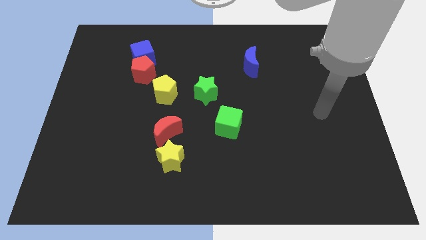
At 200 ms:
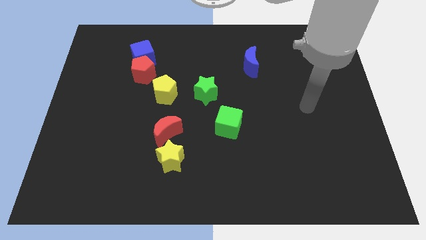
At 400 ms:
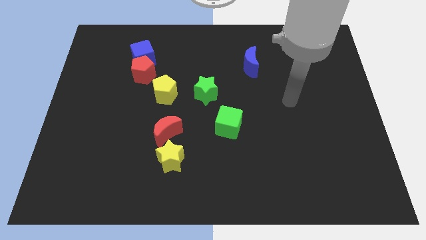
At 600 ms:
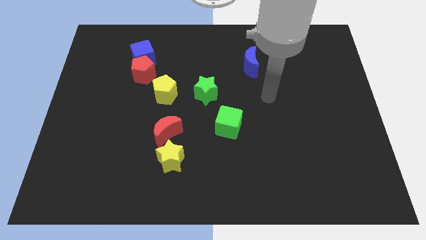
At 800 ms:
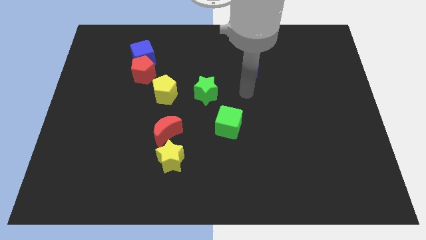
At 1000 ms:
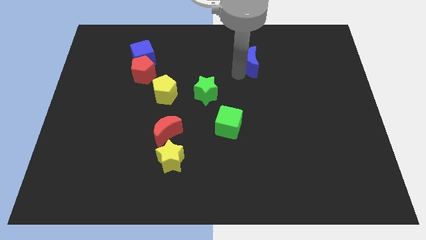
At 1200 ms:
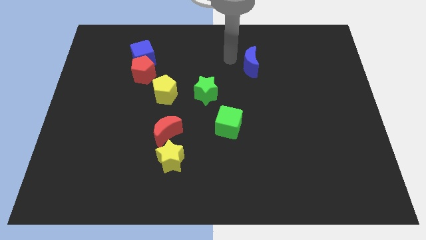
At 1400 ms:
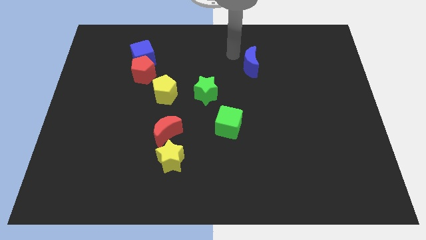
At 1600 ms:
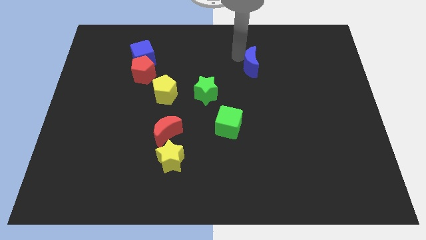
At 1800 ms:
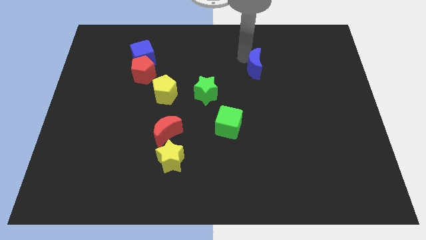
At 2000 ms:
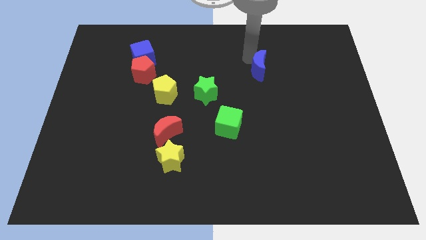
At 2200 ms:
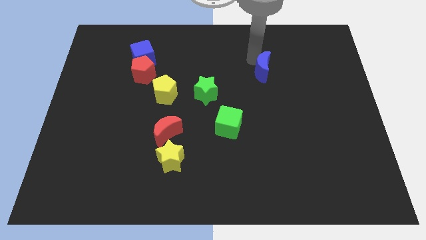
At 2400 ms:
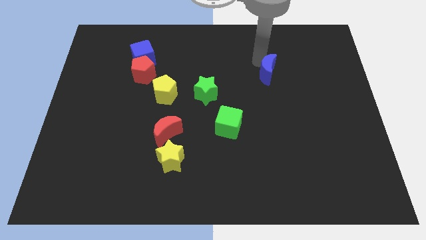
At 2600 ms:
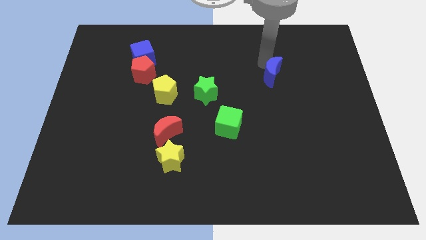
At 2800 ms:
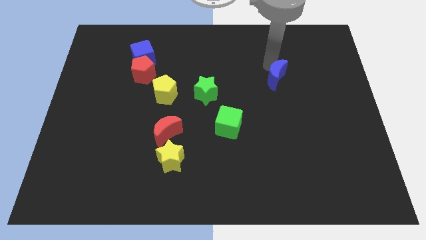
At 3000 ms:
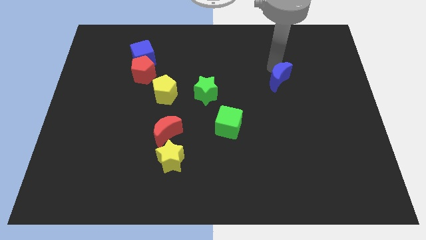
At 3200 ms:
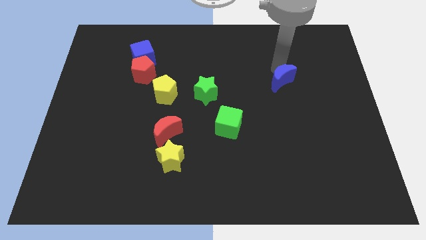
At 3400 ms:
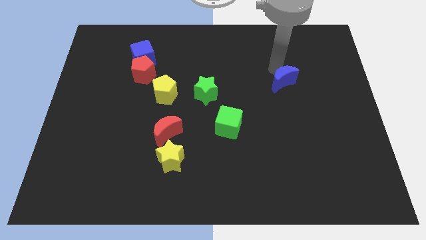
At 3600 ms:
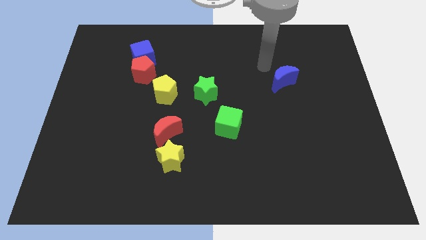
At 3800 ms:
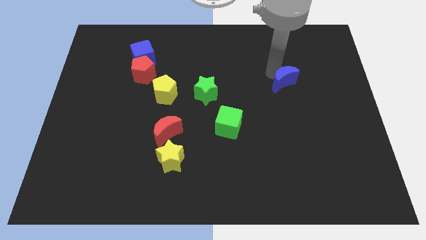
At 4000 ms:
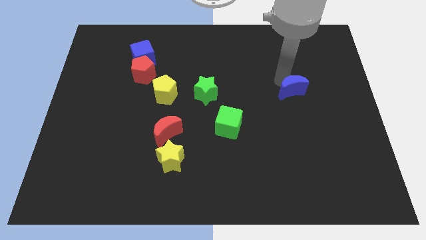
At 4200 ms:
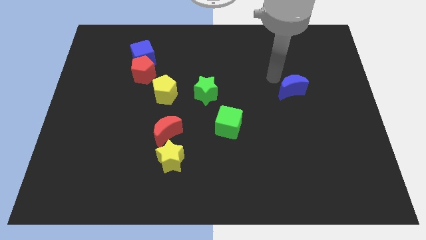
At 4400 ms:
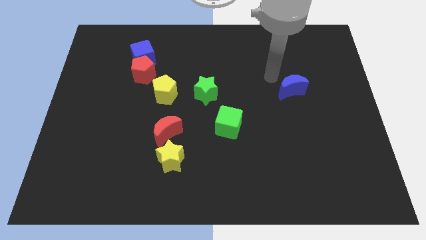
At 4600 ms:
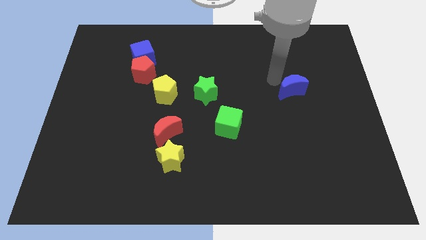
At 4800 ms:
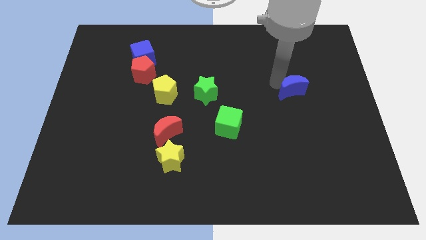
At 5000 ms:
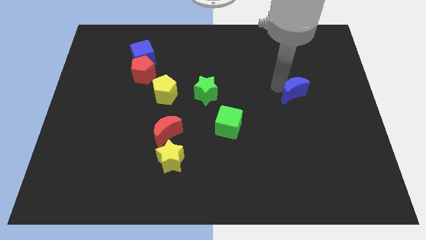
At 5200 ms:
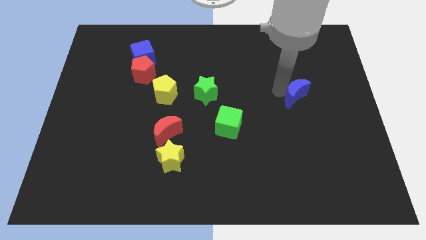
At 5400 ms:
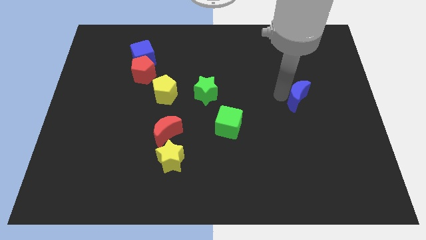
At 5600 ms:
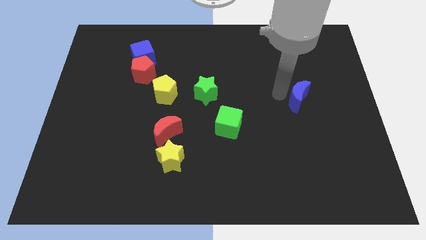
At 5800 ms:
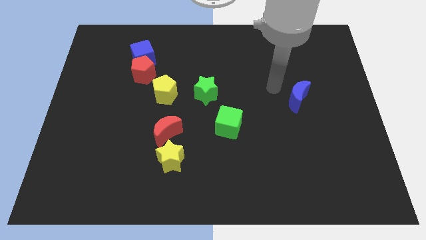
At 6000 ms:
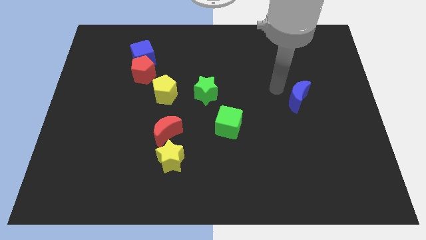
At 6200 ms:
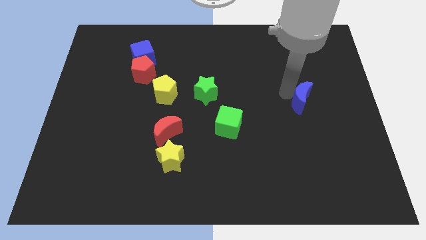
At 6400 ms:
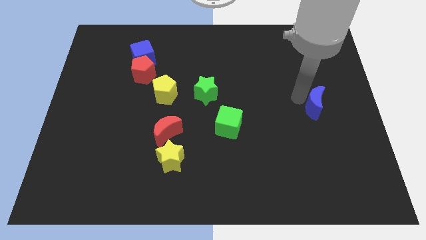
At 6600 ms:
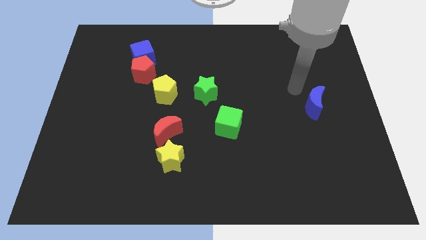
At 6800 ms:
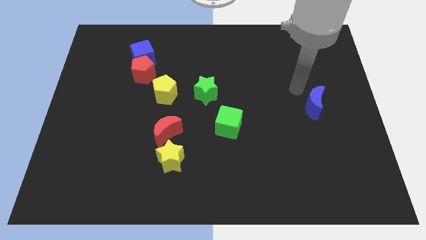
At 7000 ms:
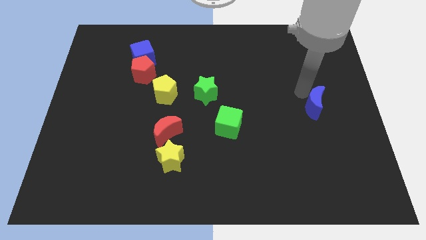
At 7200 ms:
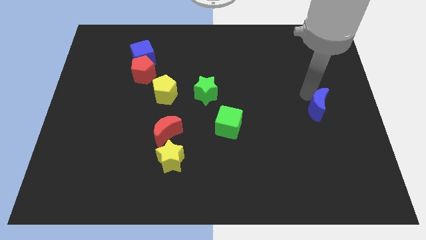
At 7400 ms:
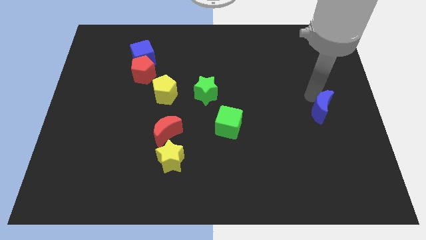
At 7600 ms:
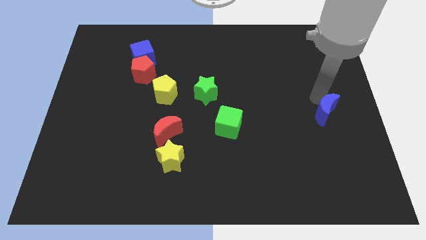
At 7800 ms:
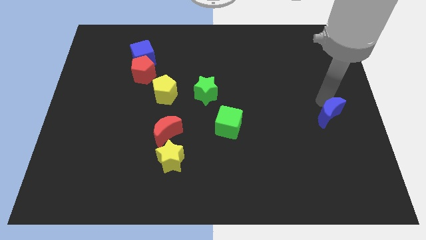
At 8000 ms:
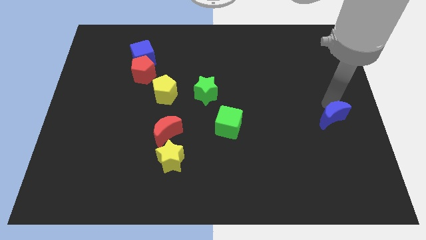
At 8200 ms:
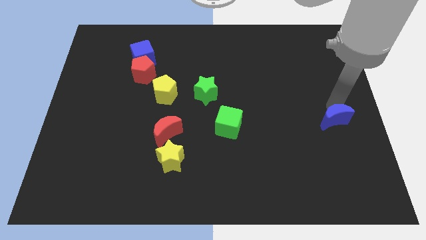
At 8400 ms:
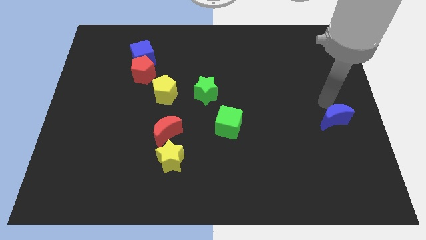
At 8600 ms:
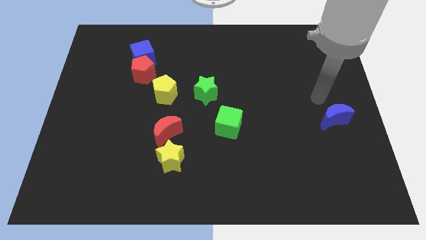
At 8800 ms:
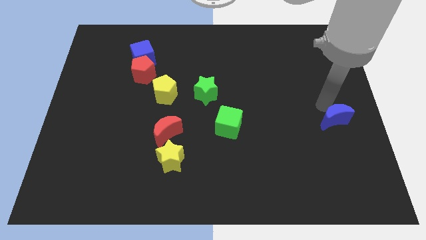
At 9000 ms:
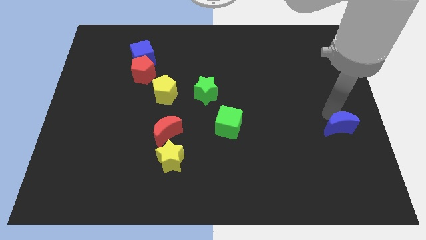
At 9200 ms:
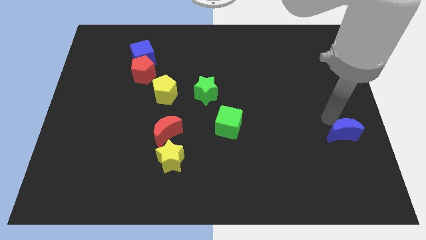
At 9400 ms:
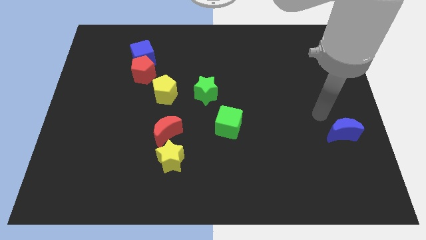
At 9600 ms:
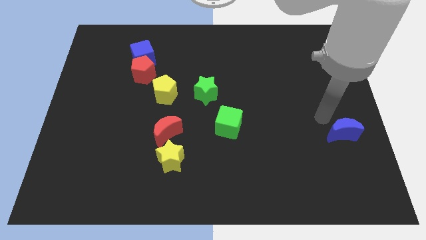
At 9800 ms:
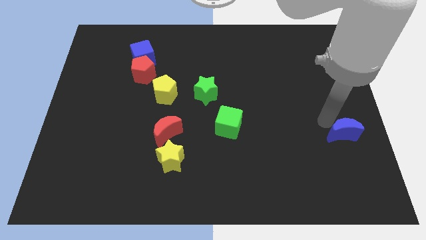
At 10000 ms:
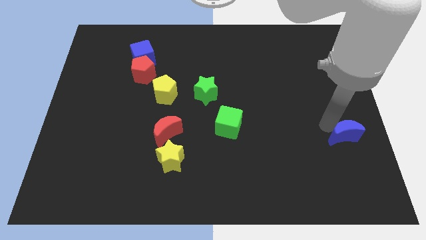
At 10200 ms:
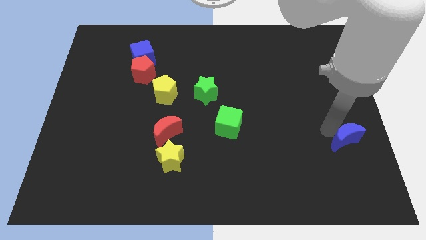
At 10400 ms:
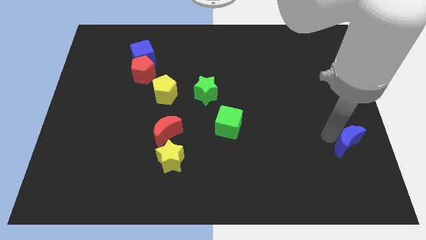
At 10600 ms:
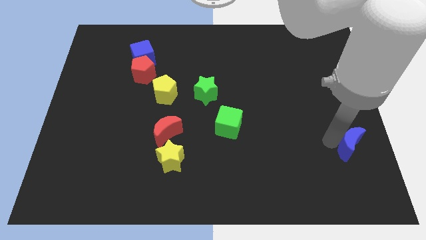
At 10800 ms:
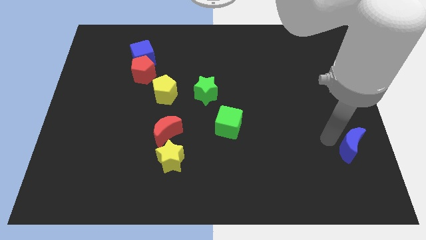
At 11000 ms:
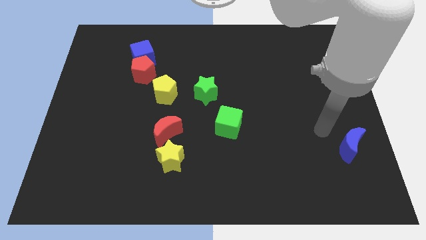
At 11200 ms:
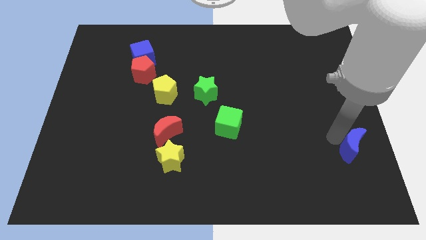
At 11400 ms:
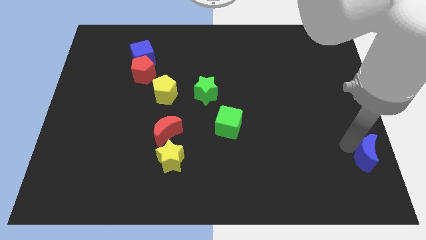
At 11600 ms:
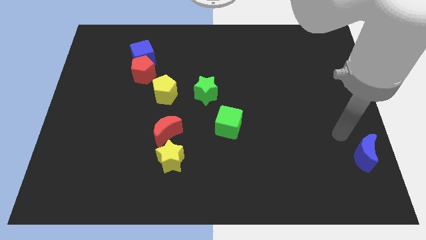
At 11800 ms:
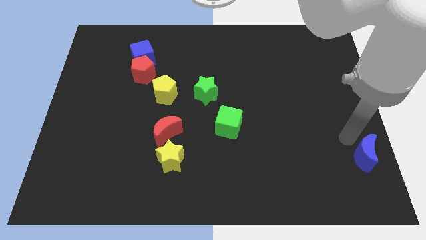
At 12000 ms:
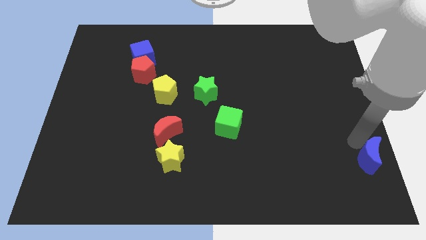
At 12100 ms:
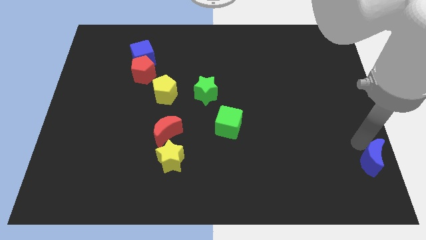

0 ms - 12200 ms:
move the blue moon to the bottom right

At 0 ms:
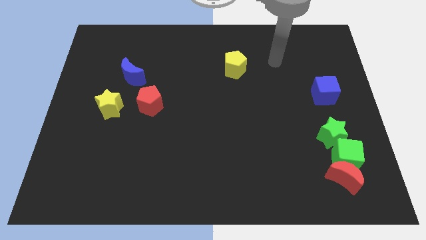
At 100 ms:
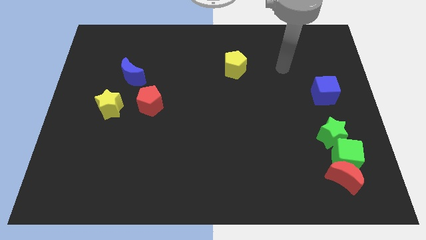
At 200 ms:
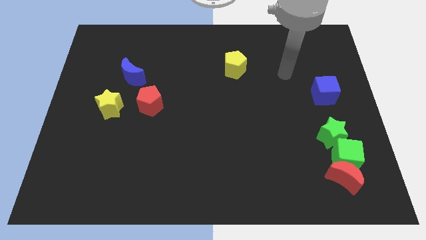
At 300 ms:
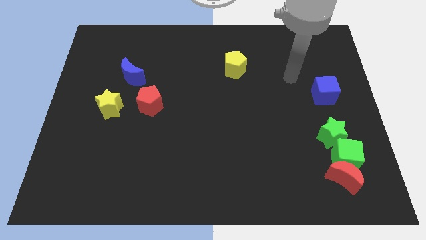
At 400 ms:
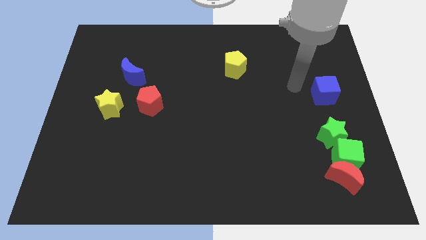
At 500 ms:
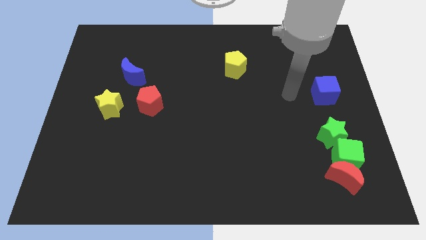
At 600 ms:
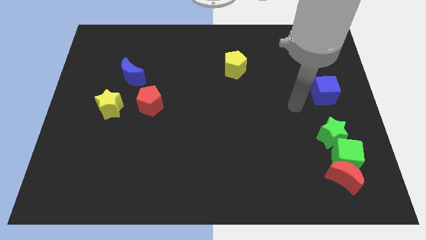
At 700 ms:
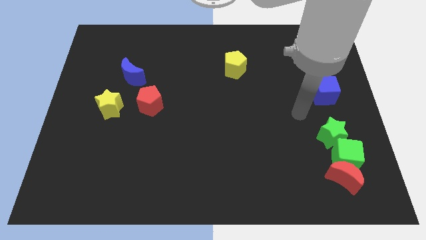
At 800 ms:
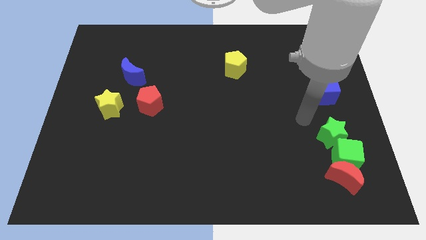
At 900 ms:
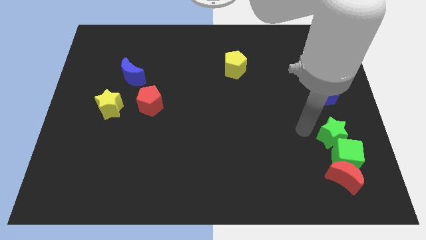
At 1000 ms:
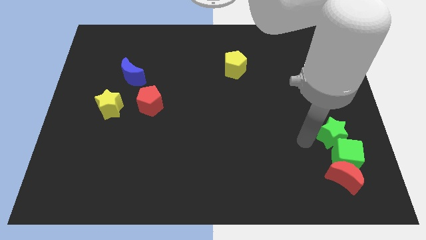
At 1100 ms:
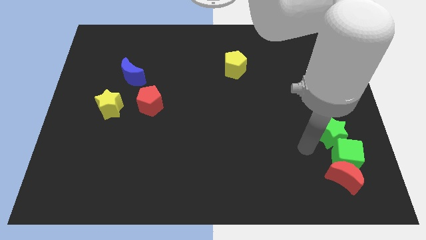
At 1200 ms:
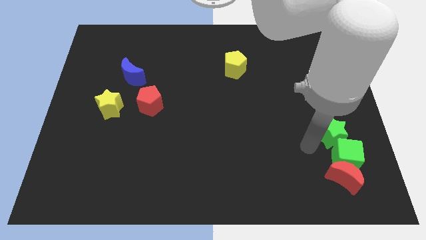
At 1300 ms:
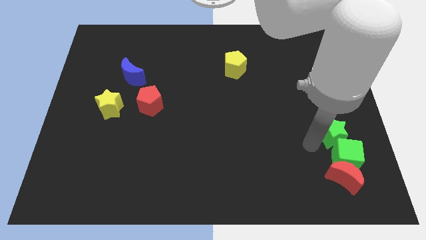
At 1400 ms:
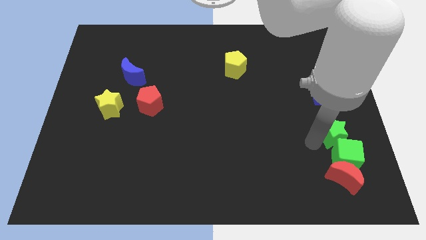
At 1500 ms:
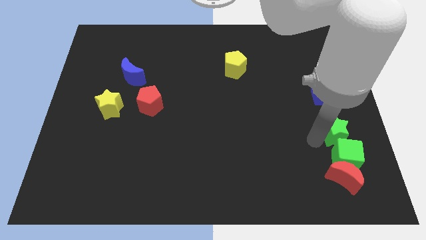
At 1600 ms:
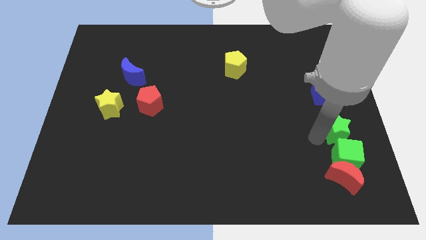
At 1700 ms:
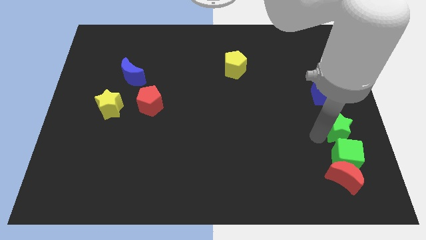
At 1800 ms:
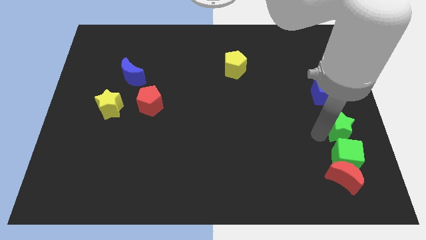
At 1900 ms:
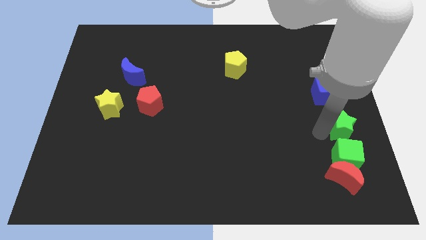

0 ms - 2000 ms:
push the green star to the right side
